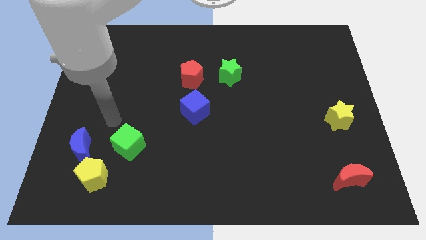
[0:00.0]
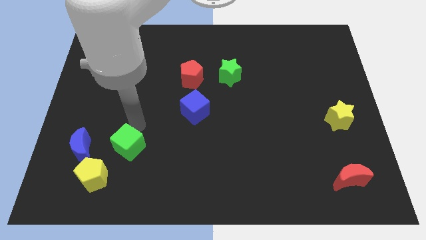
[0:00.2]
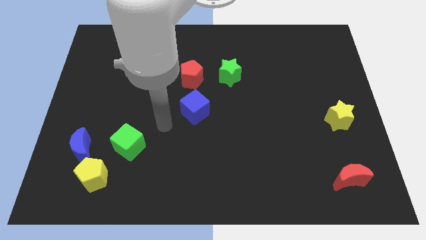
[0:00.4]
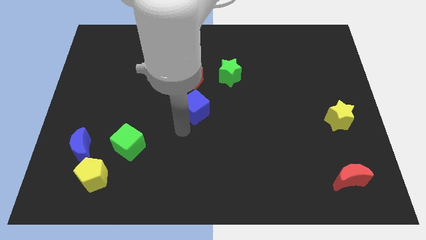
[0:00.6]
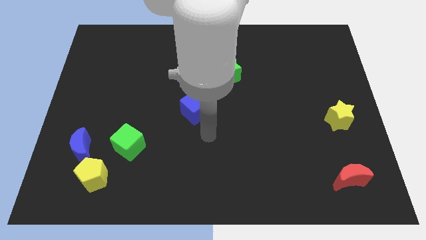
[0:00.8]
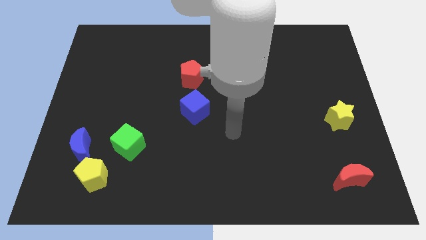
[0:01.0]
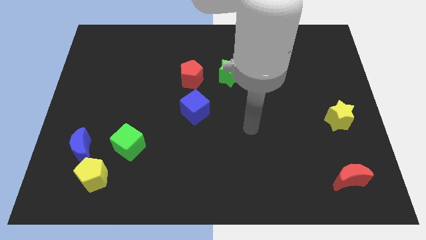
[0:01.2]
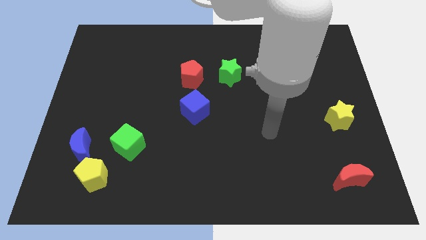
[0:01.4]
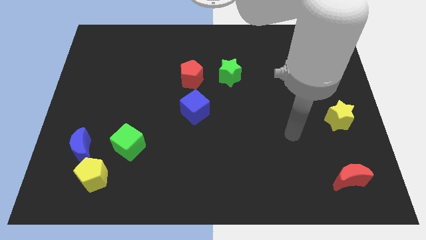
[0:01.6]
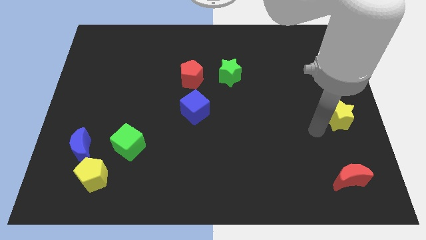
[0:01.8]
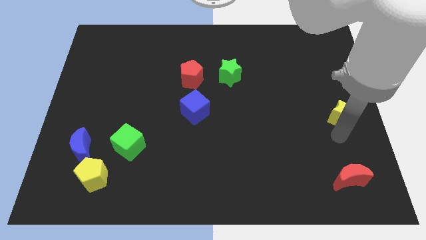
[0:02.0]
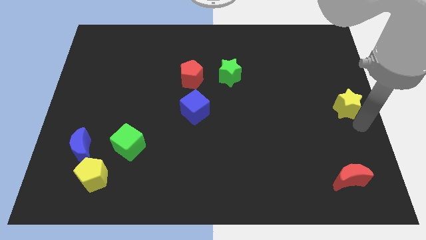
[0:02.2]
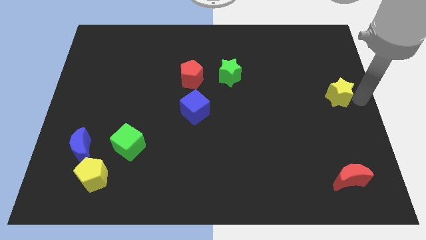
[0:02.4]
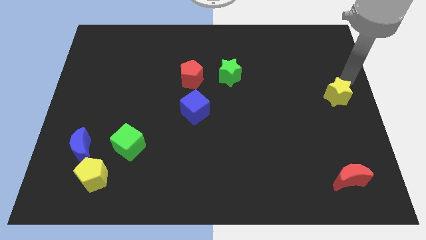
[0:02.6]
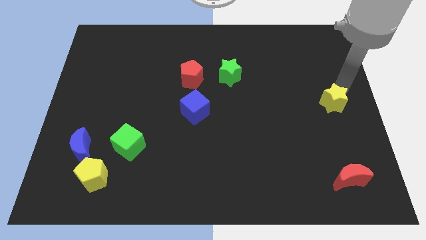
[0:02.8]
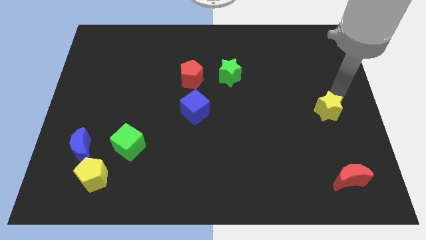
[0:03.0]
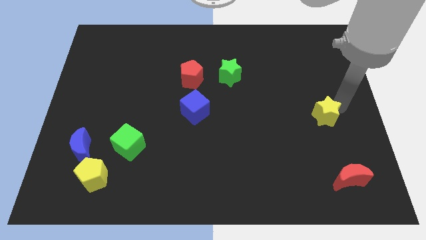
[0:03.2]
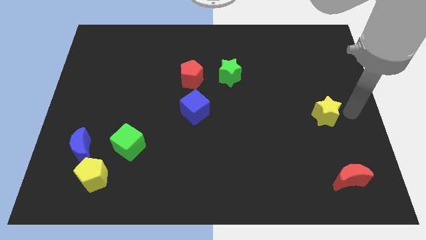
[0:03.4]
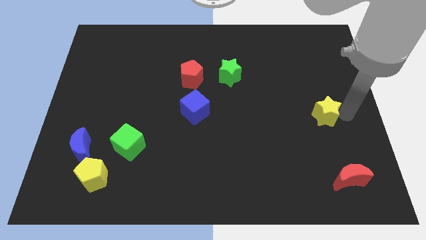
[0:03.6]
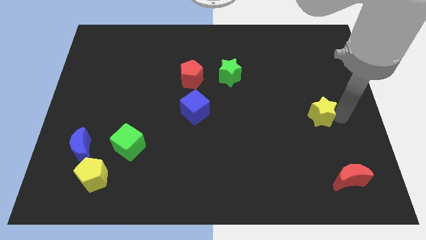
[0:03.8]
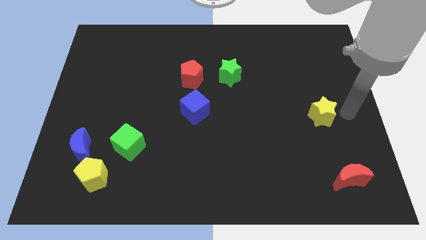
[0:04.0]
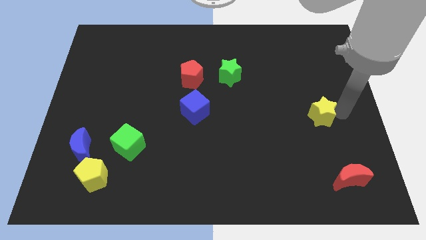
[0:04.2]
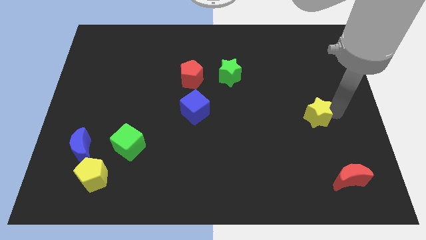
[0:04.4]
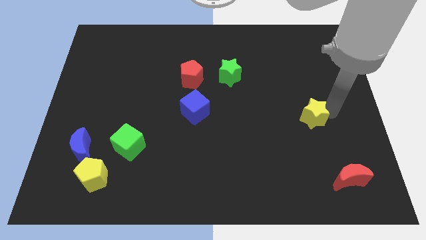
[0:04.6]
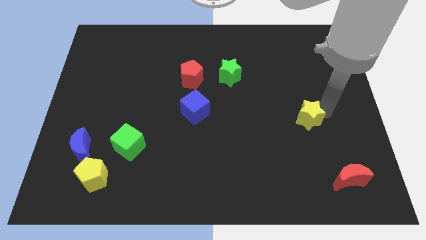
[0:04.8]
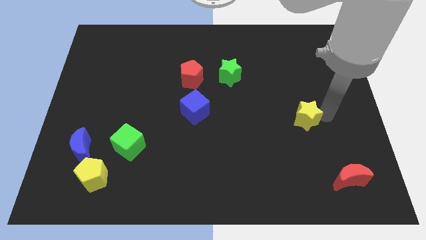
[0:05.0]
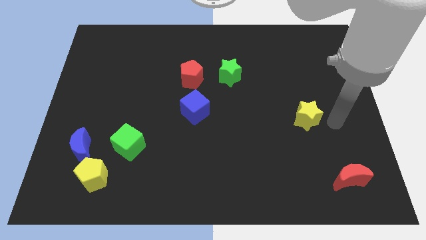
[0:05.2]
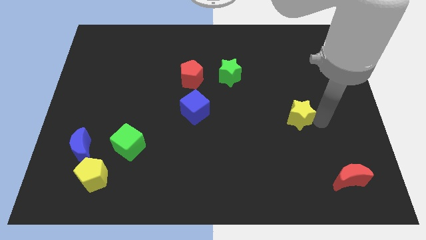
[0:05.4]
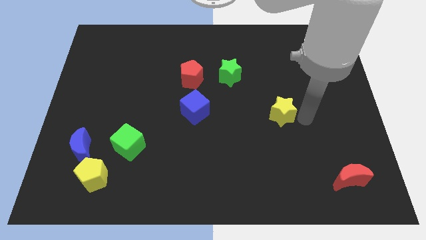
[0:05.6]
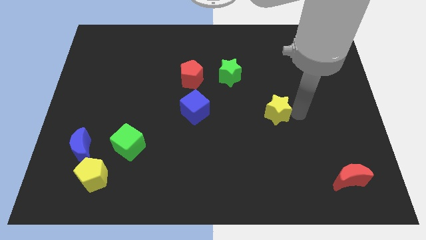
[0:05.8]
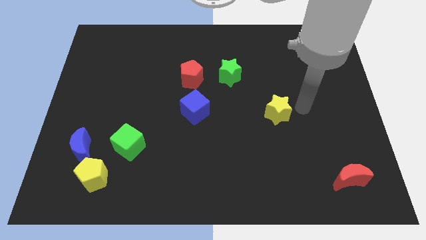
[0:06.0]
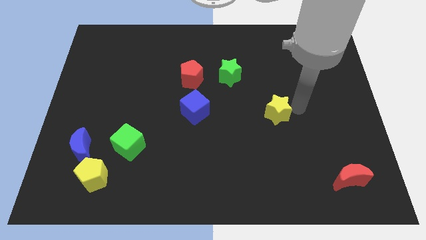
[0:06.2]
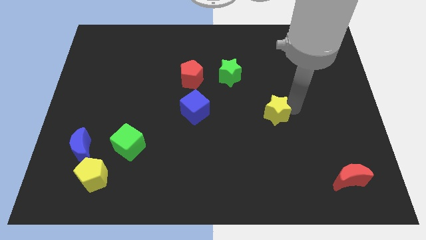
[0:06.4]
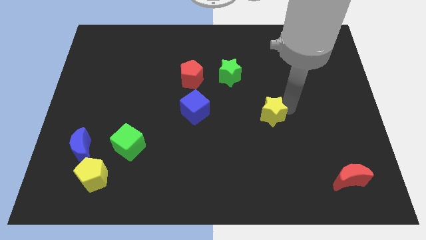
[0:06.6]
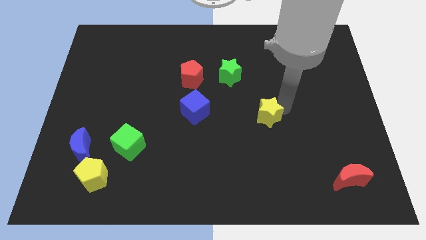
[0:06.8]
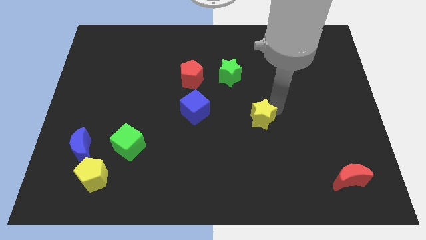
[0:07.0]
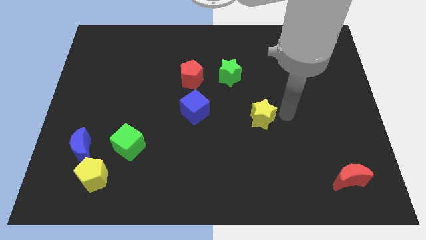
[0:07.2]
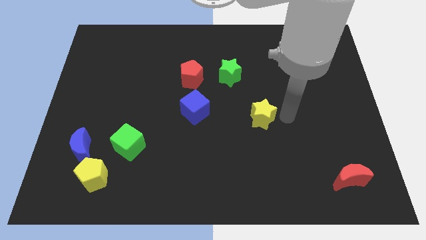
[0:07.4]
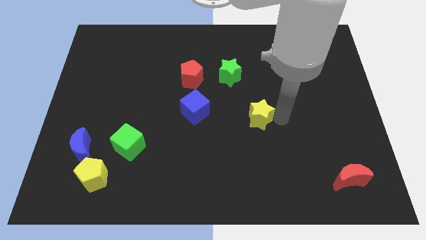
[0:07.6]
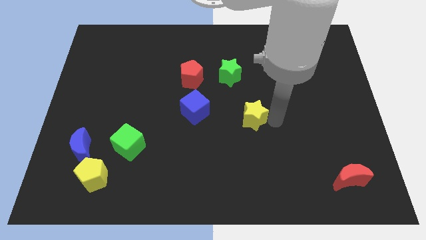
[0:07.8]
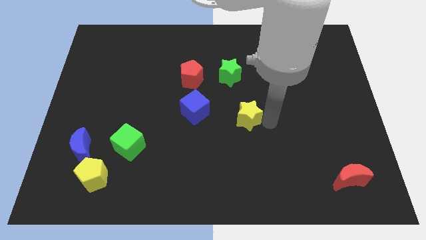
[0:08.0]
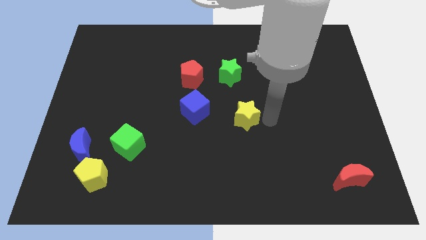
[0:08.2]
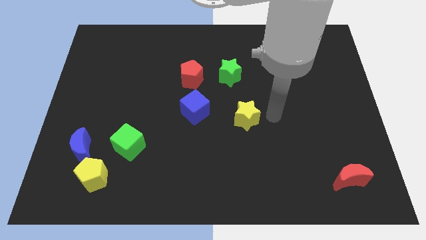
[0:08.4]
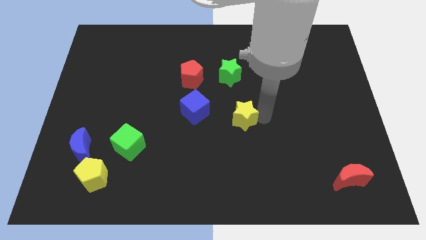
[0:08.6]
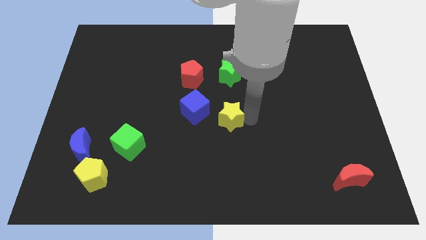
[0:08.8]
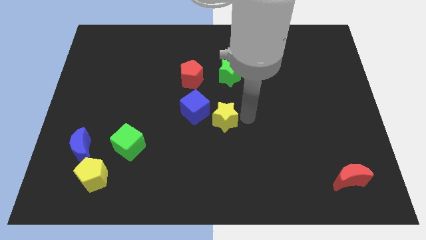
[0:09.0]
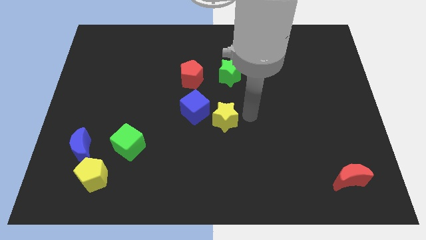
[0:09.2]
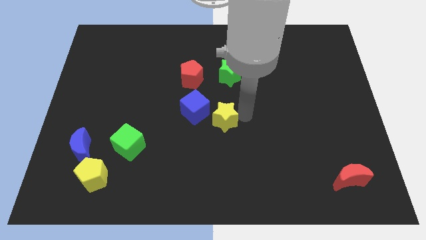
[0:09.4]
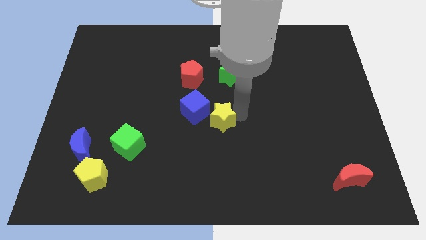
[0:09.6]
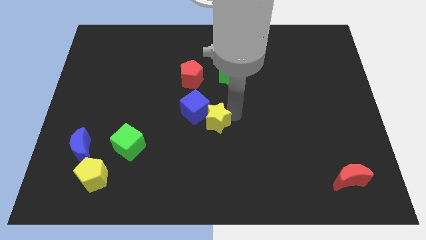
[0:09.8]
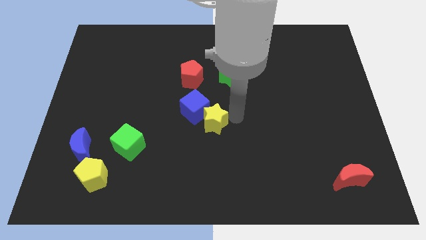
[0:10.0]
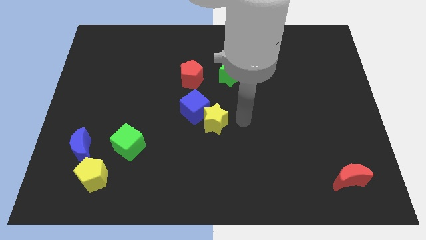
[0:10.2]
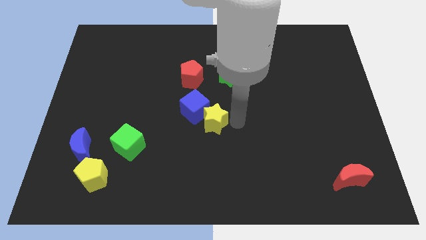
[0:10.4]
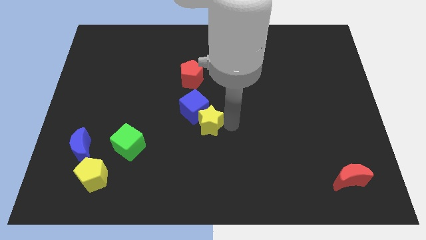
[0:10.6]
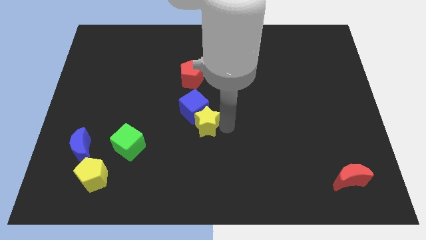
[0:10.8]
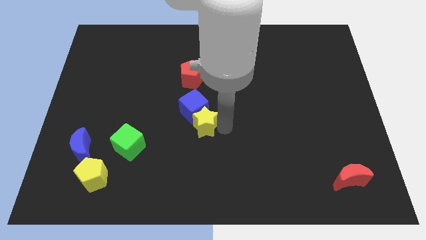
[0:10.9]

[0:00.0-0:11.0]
move the yellow star to the bottom of the red pentagon

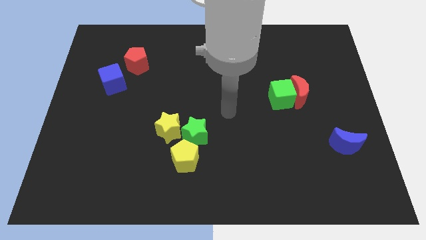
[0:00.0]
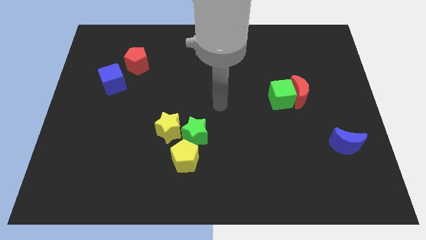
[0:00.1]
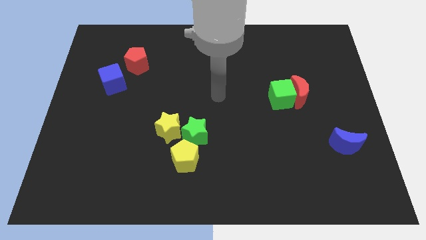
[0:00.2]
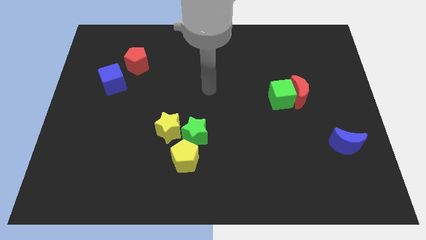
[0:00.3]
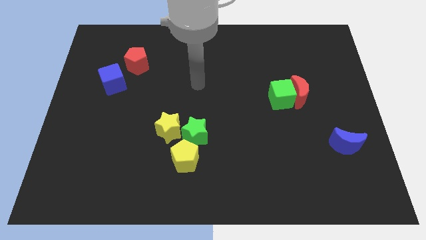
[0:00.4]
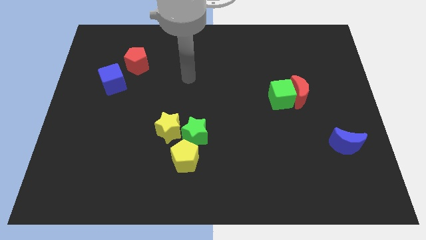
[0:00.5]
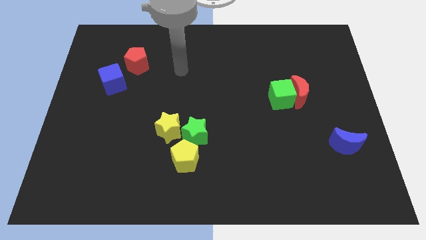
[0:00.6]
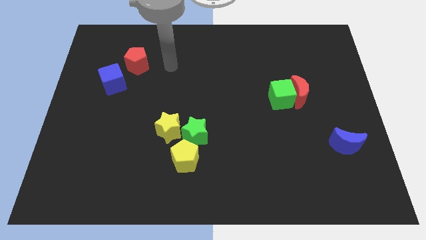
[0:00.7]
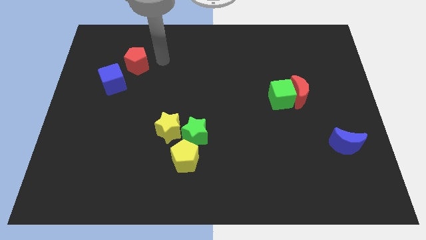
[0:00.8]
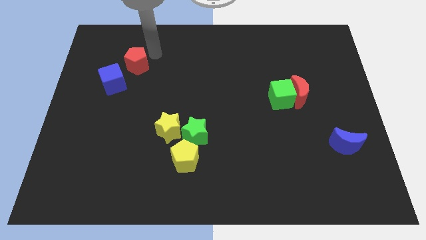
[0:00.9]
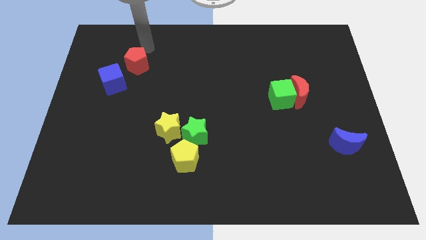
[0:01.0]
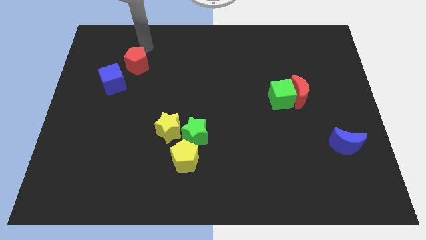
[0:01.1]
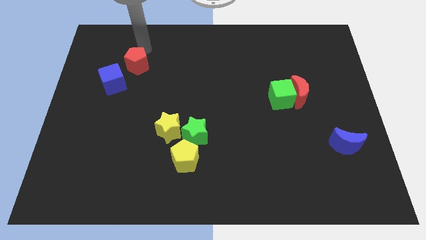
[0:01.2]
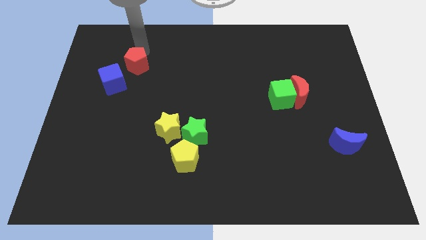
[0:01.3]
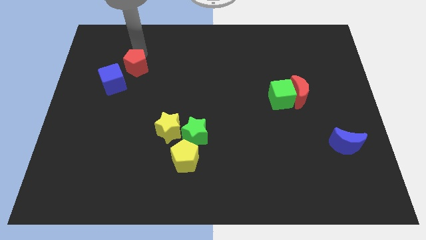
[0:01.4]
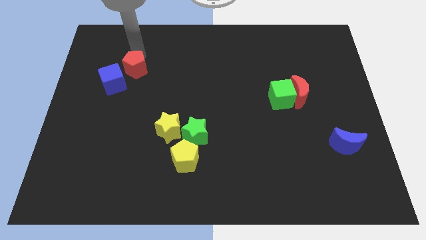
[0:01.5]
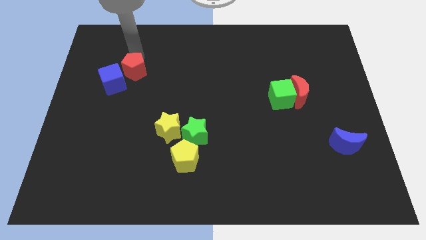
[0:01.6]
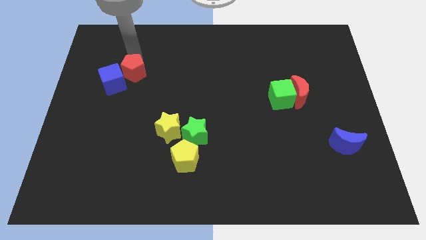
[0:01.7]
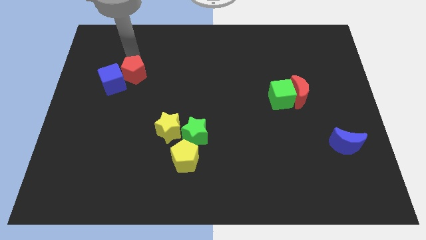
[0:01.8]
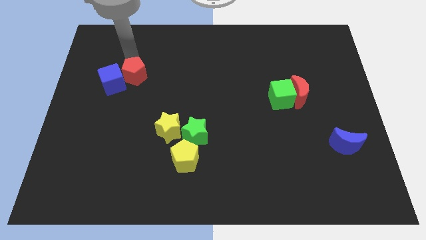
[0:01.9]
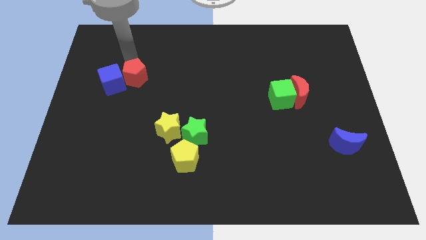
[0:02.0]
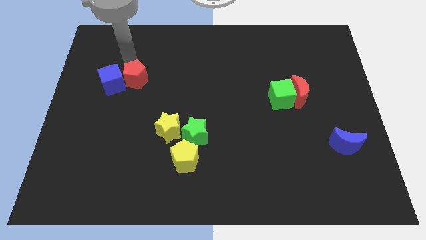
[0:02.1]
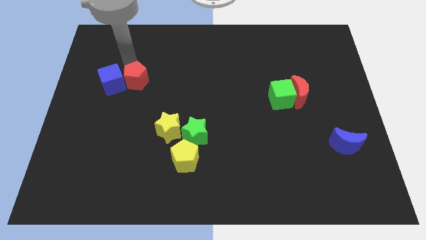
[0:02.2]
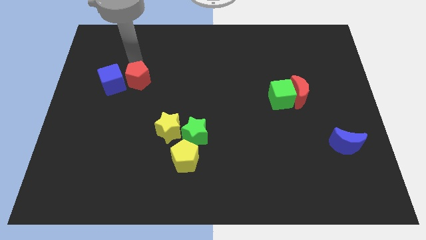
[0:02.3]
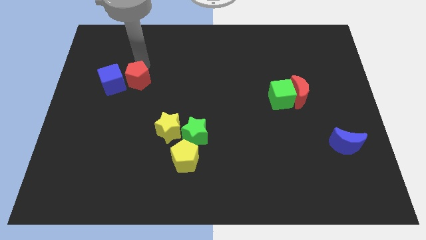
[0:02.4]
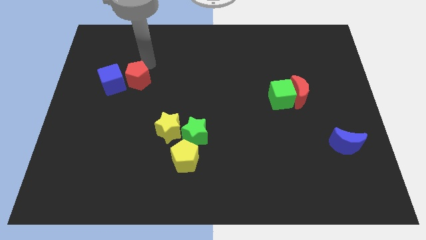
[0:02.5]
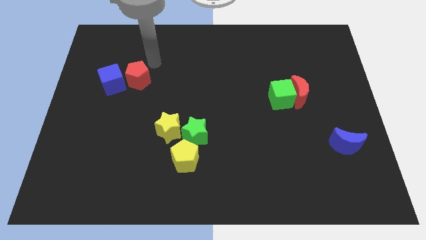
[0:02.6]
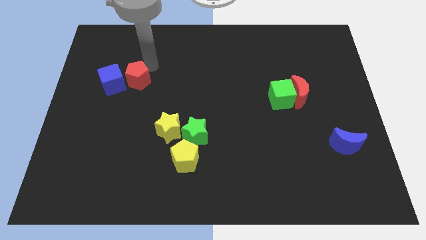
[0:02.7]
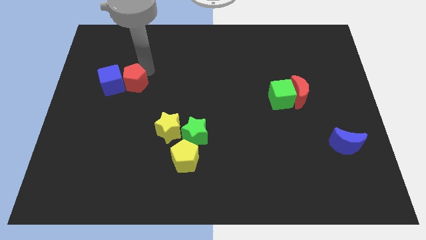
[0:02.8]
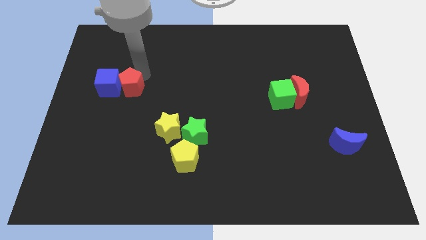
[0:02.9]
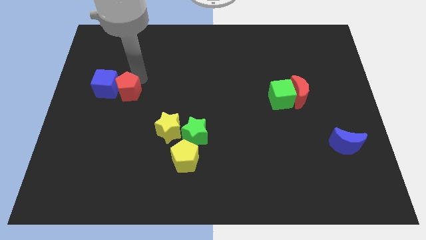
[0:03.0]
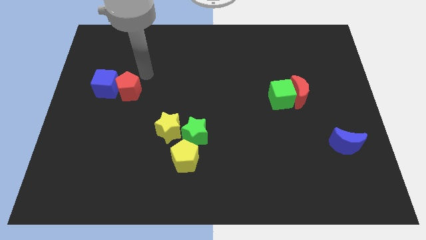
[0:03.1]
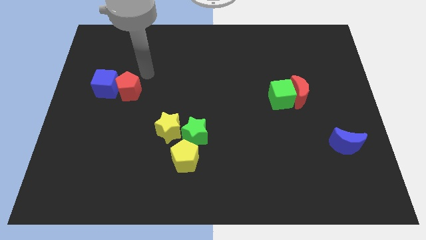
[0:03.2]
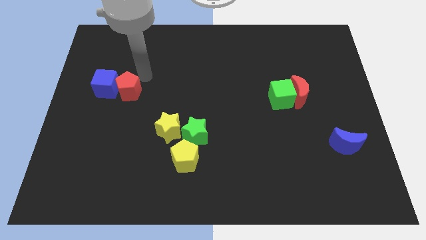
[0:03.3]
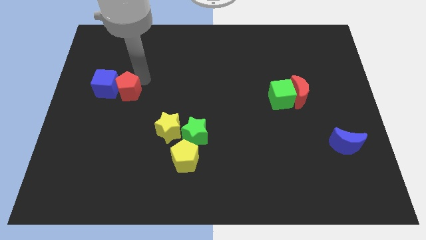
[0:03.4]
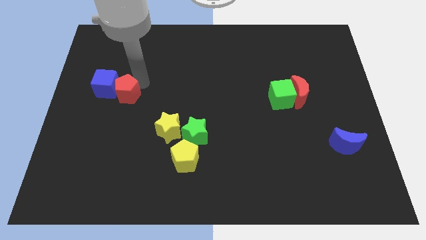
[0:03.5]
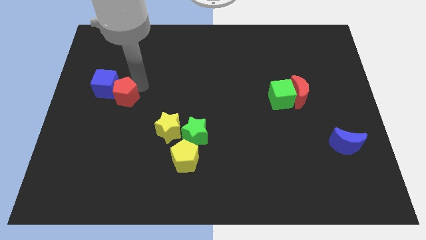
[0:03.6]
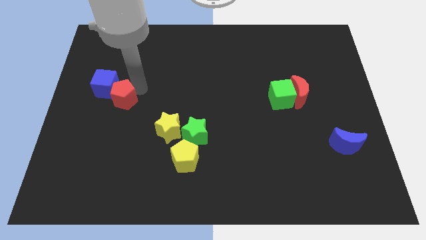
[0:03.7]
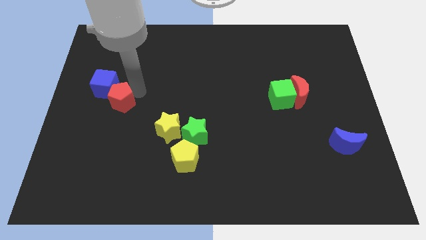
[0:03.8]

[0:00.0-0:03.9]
move the red pentagon to the bottom of the blue cube
